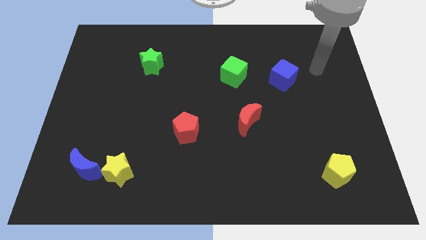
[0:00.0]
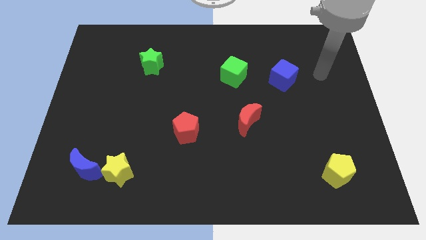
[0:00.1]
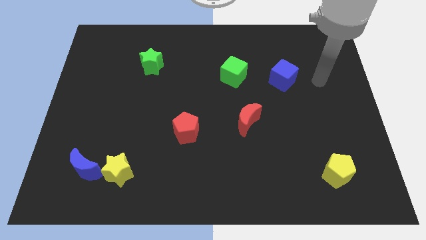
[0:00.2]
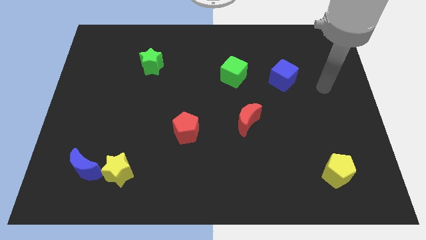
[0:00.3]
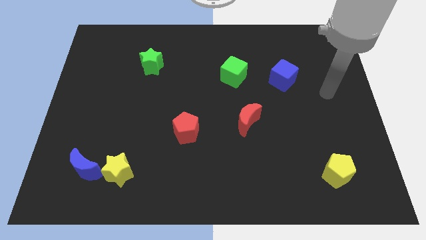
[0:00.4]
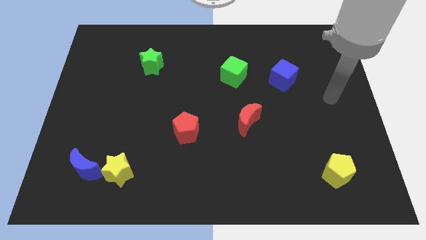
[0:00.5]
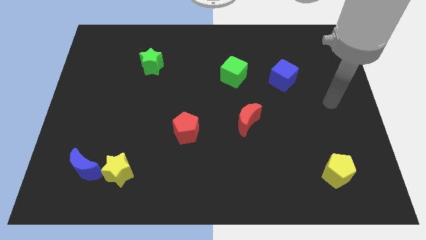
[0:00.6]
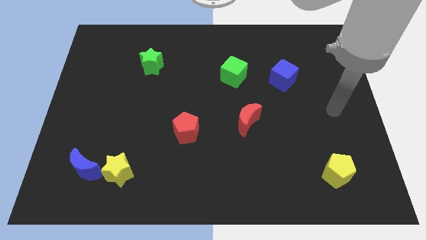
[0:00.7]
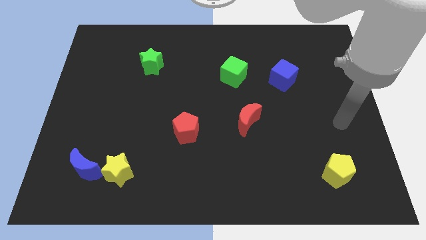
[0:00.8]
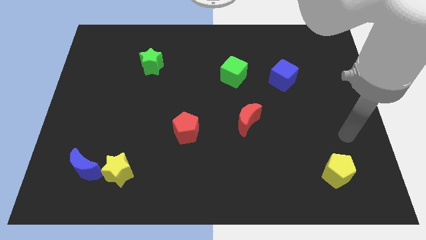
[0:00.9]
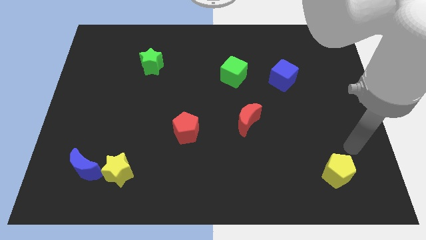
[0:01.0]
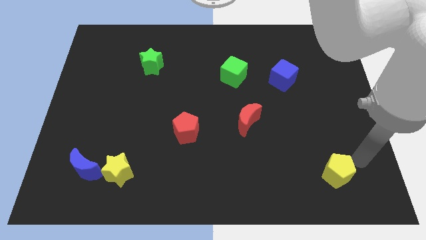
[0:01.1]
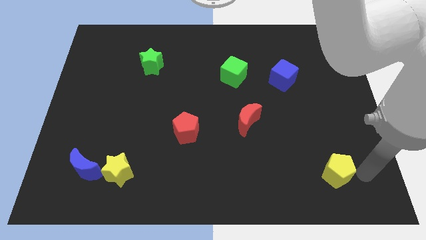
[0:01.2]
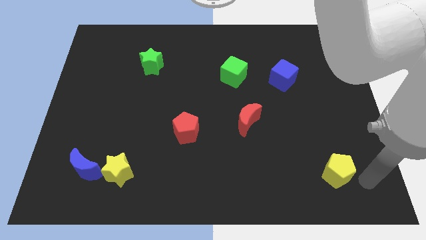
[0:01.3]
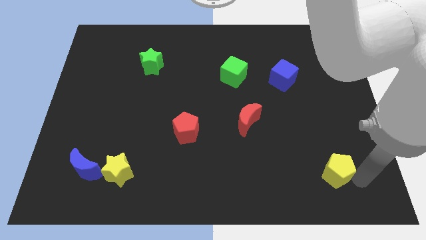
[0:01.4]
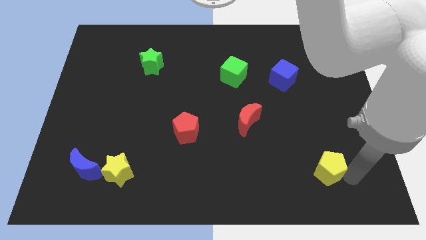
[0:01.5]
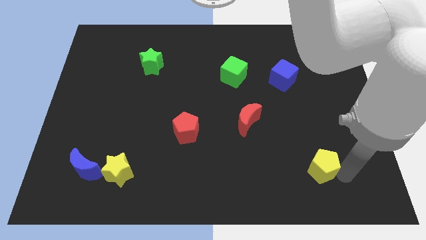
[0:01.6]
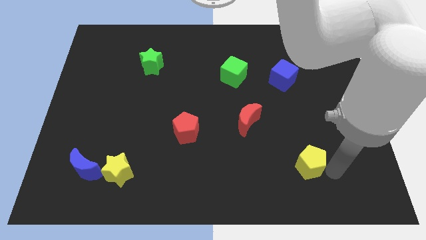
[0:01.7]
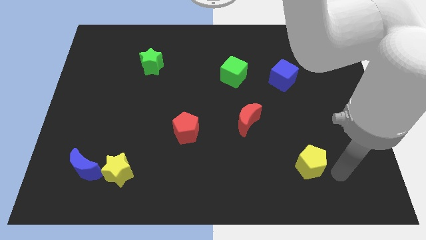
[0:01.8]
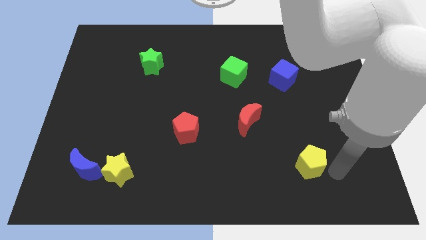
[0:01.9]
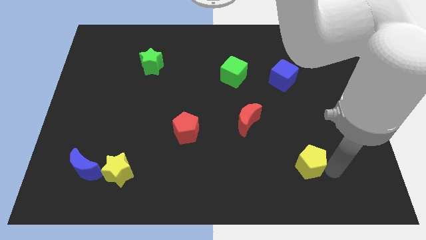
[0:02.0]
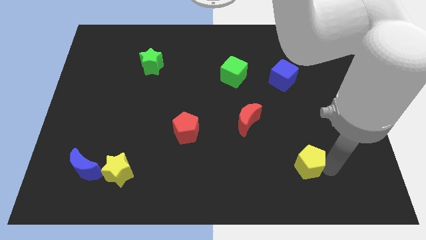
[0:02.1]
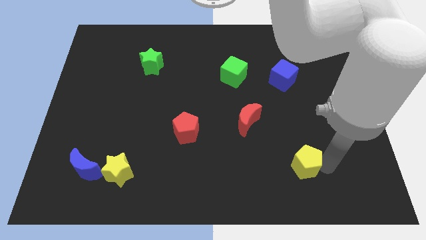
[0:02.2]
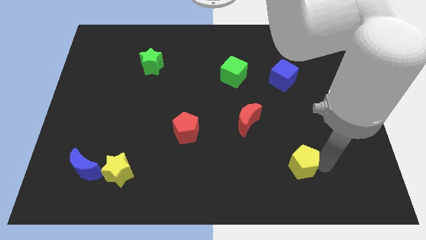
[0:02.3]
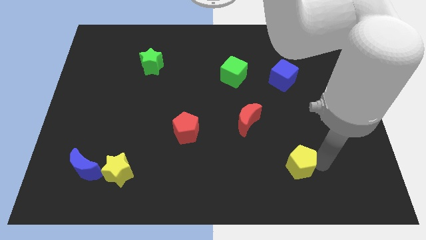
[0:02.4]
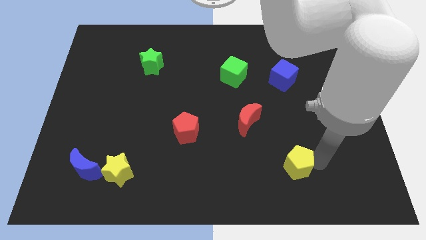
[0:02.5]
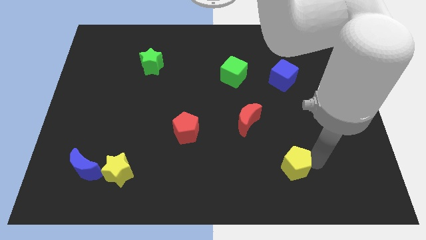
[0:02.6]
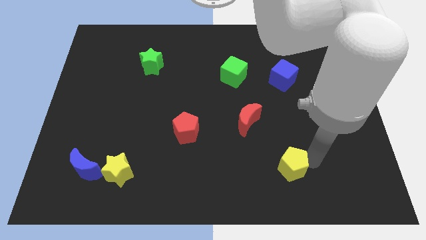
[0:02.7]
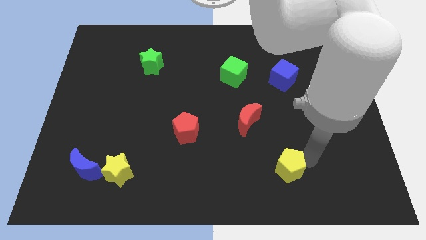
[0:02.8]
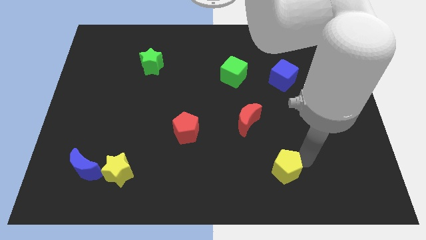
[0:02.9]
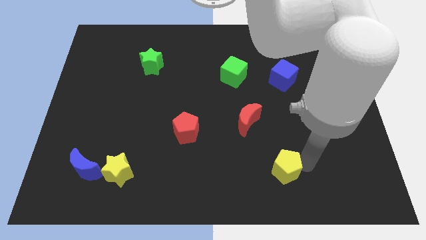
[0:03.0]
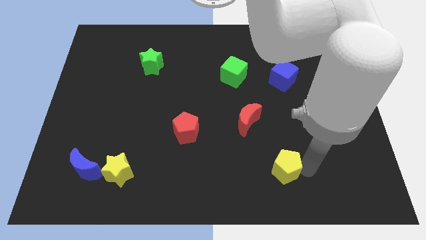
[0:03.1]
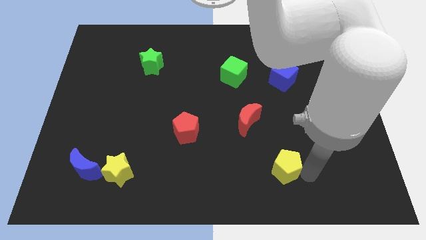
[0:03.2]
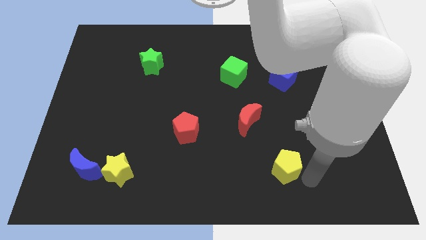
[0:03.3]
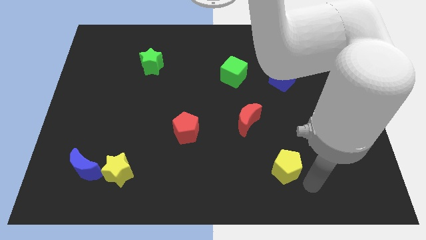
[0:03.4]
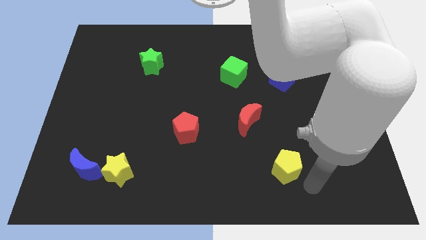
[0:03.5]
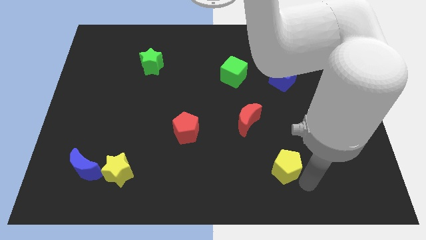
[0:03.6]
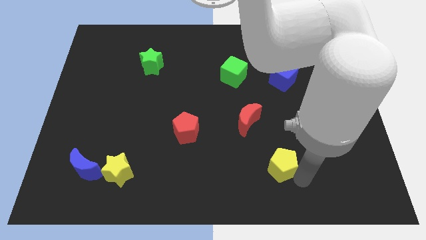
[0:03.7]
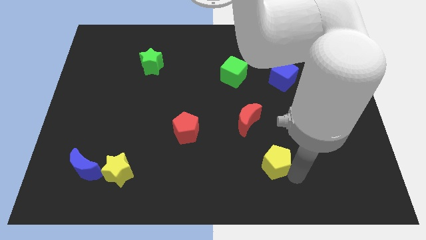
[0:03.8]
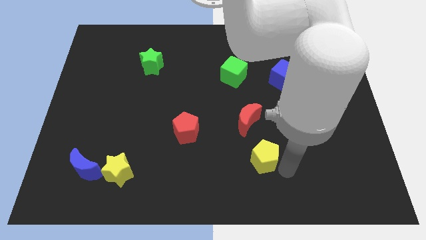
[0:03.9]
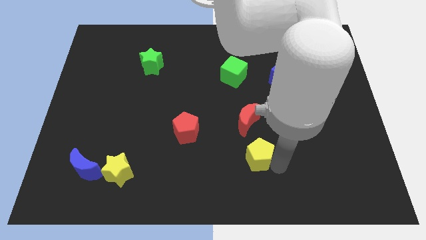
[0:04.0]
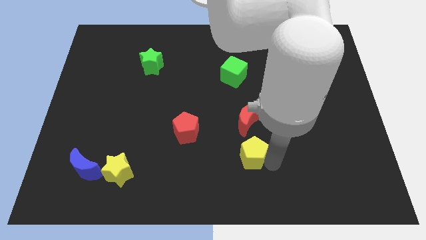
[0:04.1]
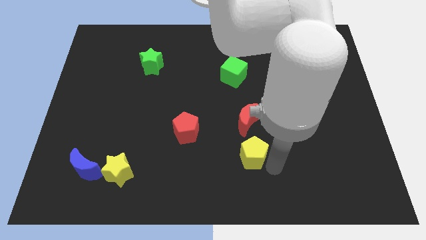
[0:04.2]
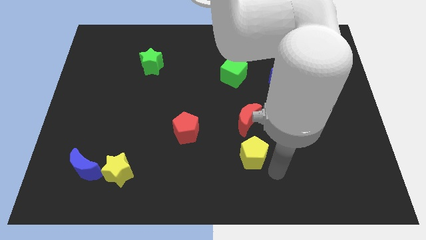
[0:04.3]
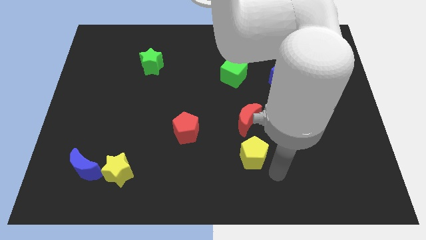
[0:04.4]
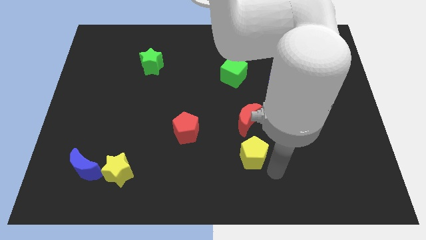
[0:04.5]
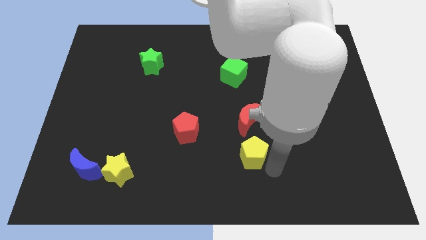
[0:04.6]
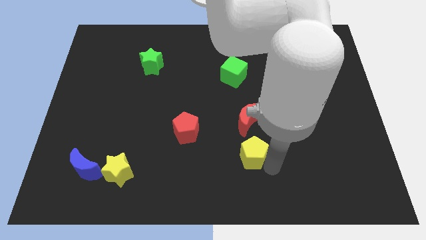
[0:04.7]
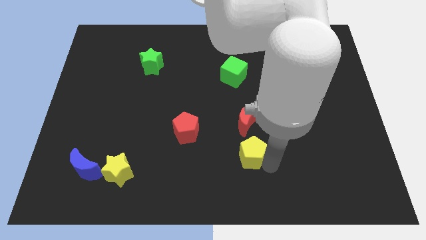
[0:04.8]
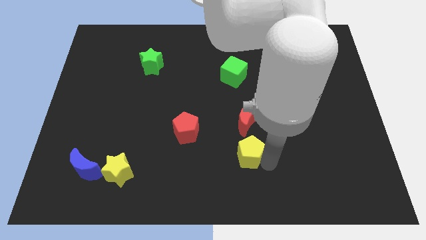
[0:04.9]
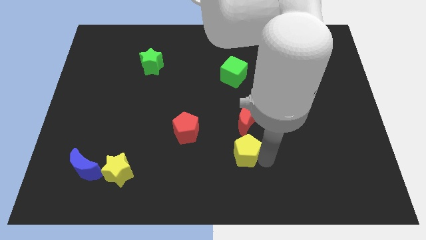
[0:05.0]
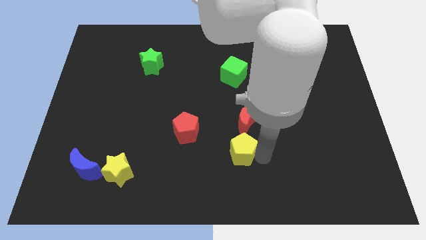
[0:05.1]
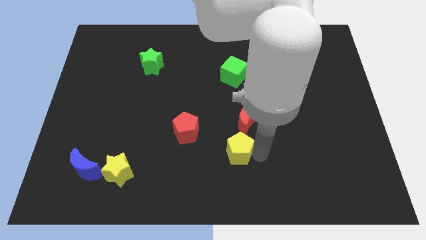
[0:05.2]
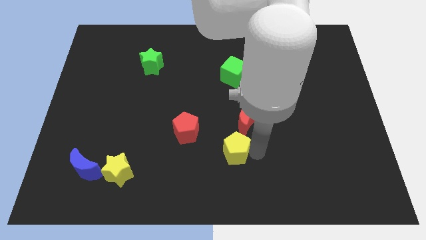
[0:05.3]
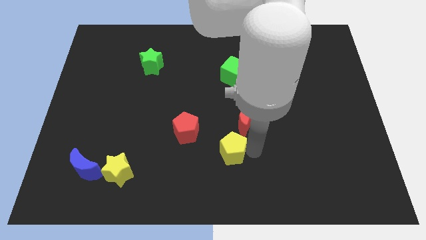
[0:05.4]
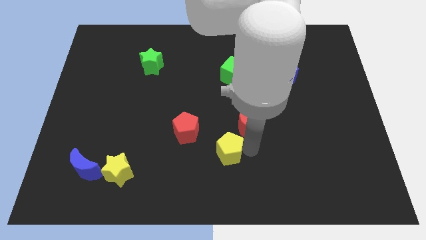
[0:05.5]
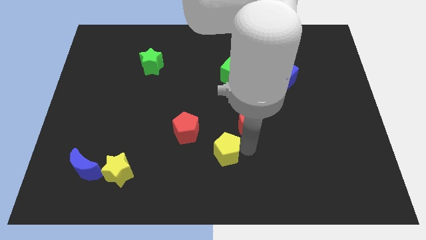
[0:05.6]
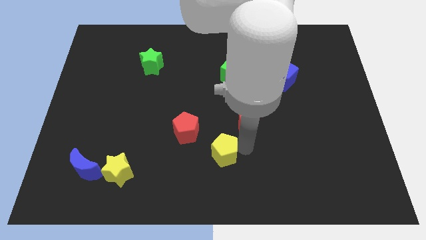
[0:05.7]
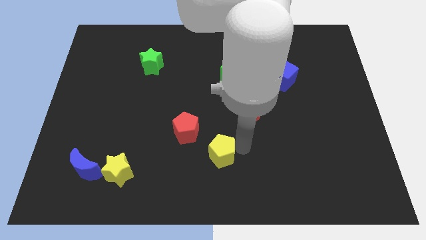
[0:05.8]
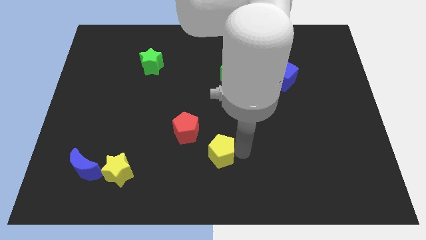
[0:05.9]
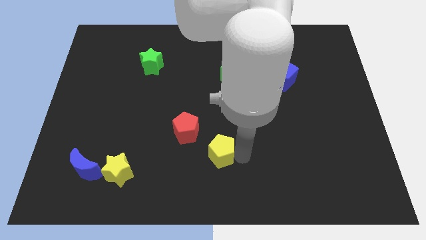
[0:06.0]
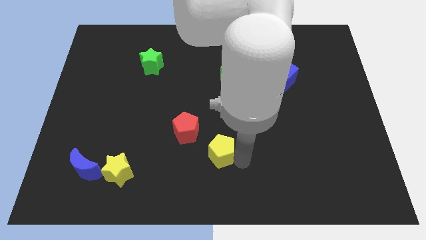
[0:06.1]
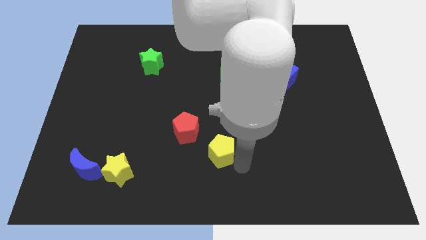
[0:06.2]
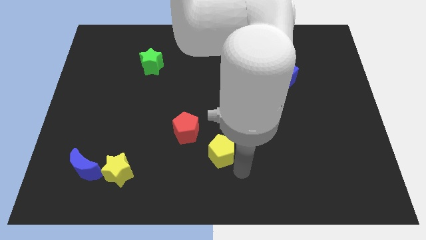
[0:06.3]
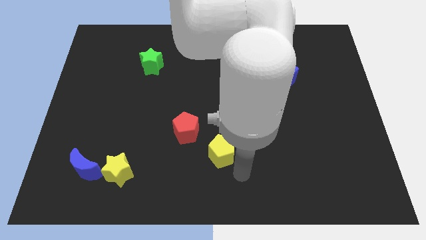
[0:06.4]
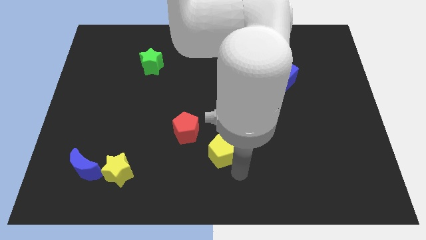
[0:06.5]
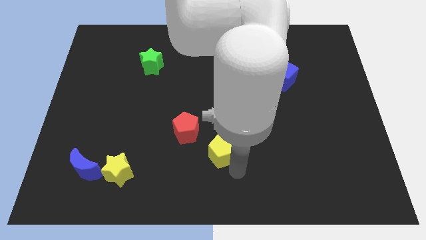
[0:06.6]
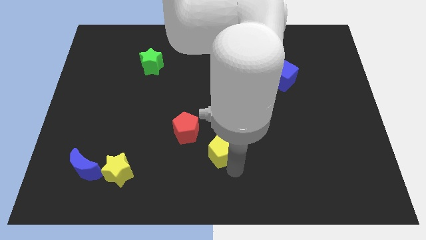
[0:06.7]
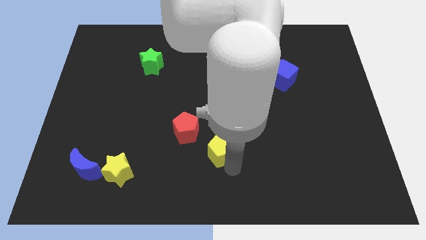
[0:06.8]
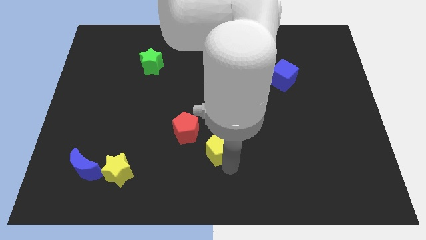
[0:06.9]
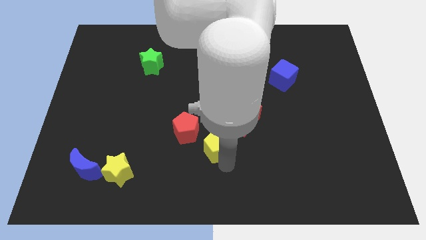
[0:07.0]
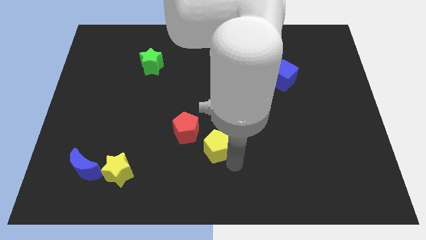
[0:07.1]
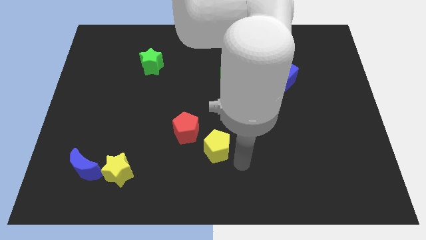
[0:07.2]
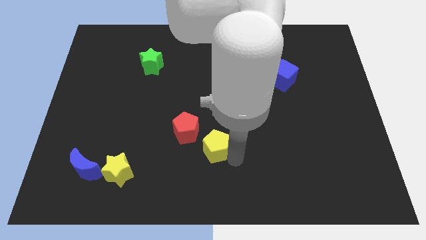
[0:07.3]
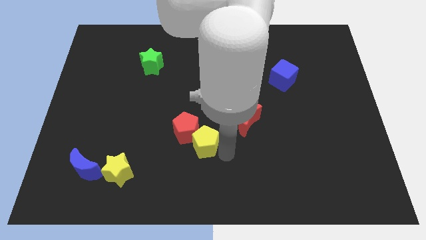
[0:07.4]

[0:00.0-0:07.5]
move the yellow pentagon close to the red pentagon

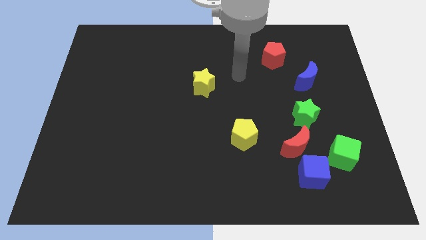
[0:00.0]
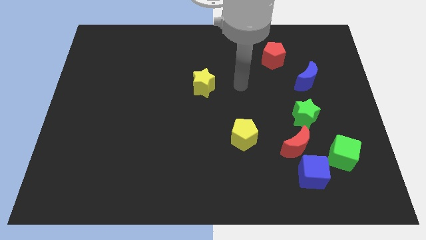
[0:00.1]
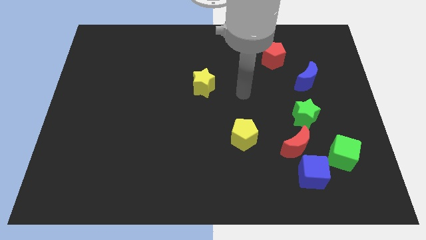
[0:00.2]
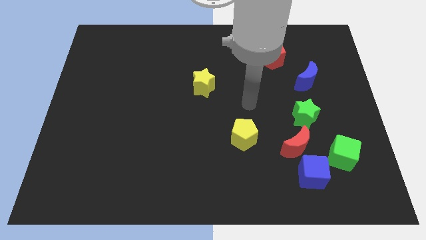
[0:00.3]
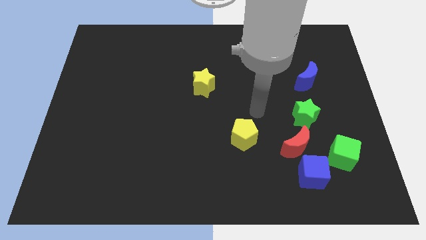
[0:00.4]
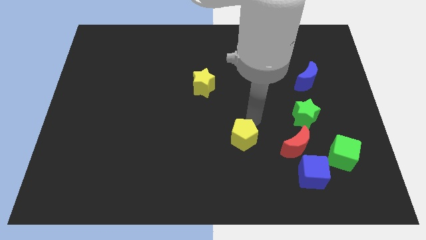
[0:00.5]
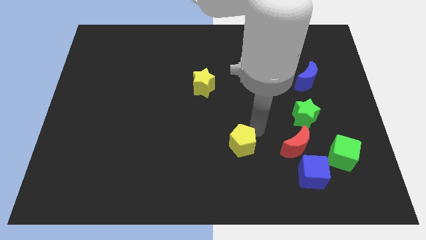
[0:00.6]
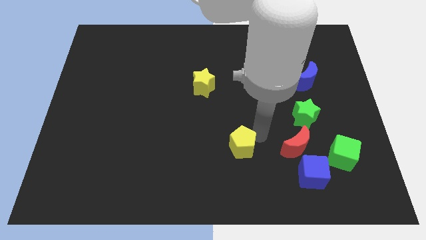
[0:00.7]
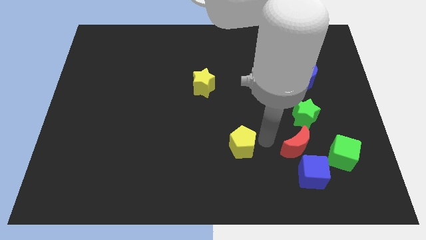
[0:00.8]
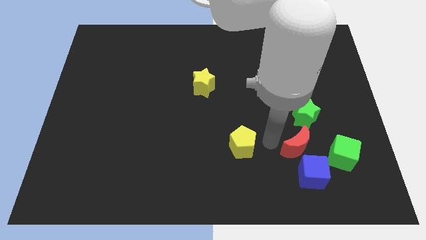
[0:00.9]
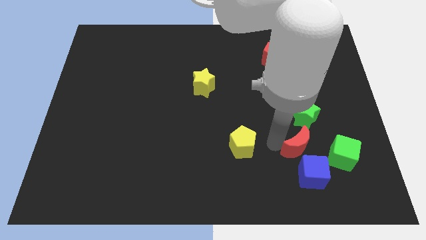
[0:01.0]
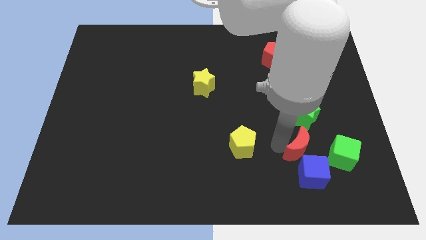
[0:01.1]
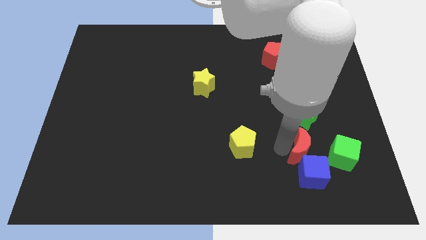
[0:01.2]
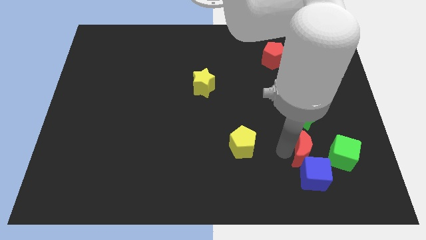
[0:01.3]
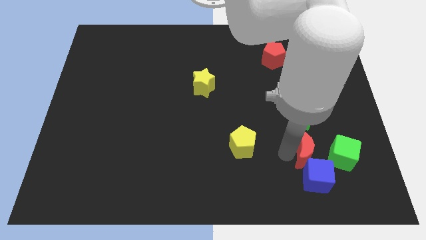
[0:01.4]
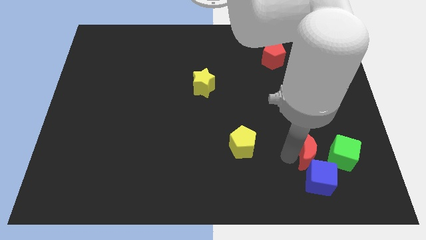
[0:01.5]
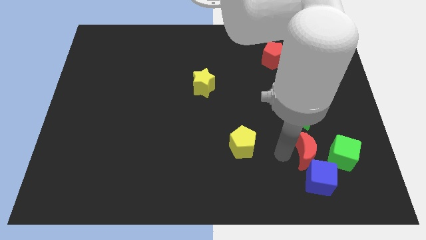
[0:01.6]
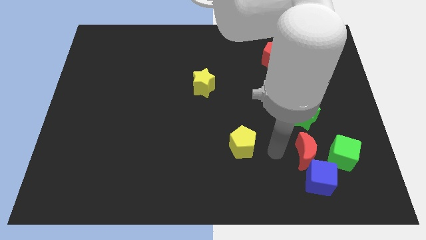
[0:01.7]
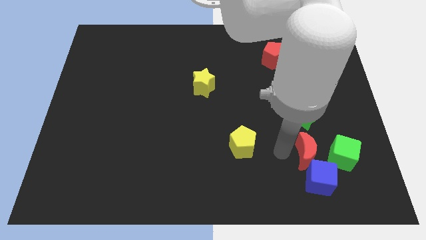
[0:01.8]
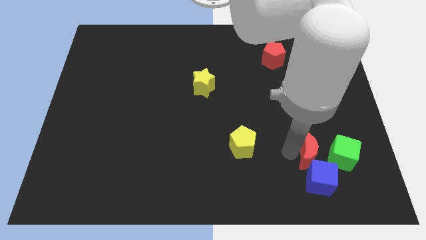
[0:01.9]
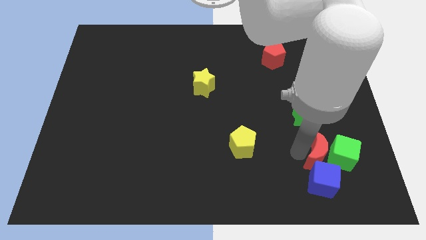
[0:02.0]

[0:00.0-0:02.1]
slide the red moon next to the green cube
